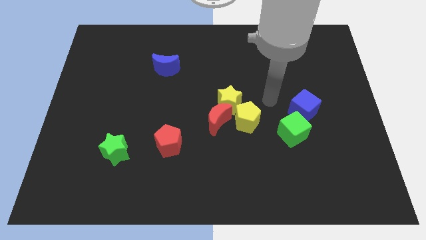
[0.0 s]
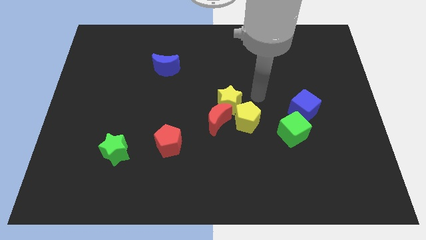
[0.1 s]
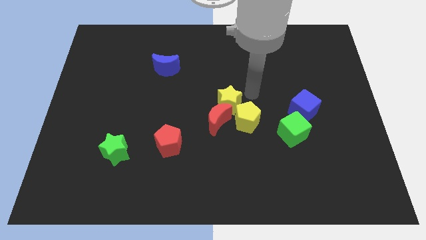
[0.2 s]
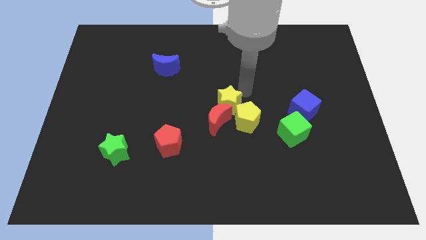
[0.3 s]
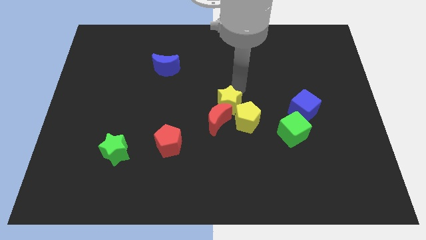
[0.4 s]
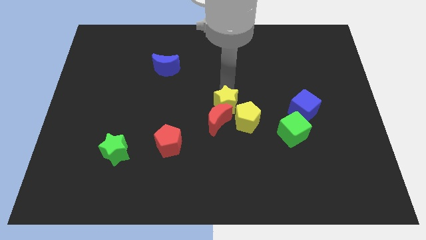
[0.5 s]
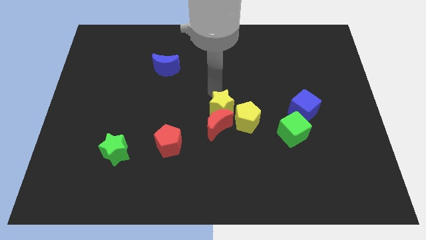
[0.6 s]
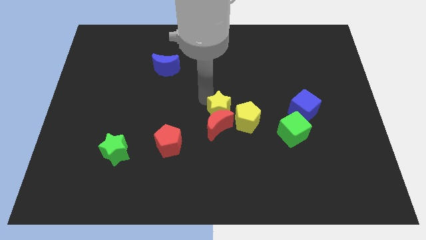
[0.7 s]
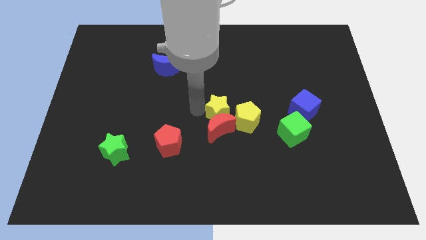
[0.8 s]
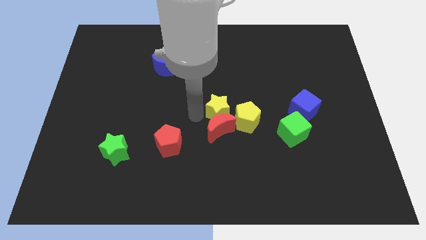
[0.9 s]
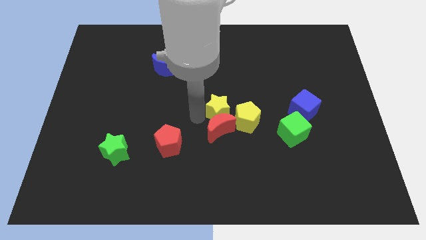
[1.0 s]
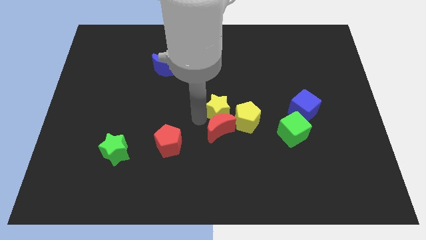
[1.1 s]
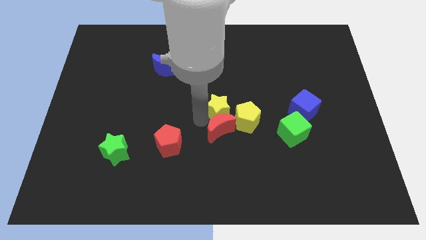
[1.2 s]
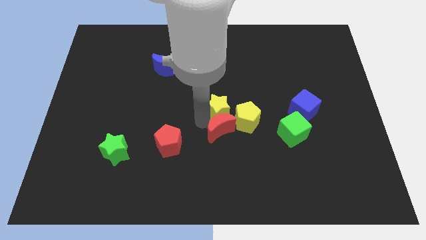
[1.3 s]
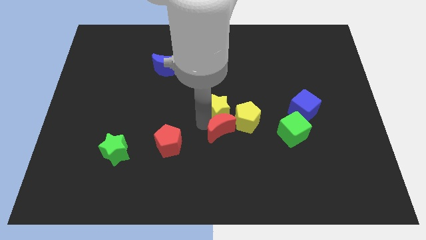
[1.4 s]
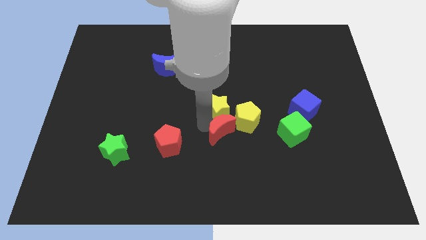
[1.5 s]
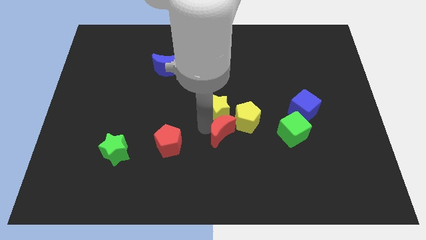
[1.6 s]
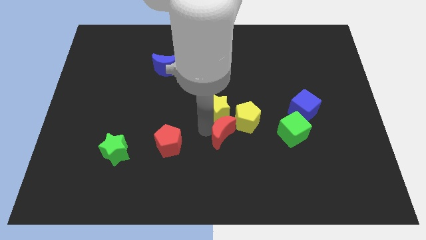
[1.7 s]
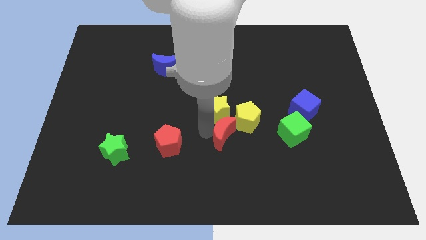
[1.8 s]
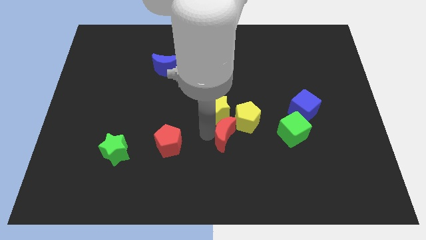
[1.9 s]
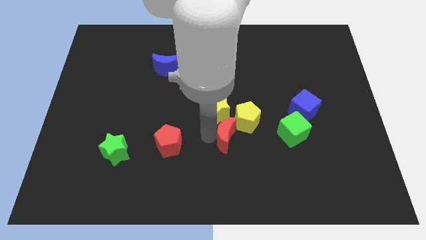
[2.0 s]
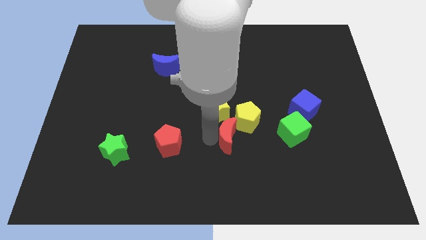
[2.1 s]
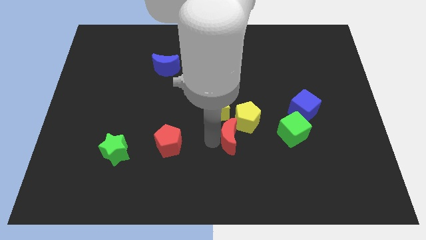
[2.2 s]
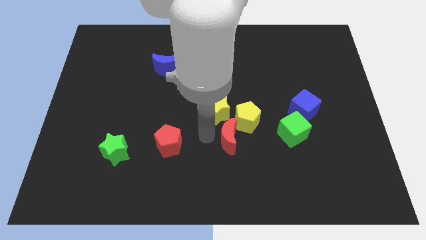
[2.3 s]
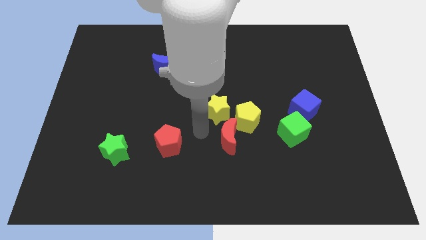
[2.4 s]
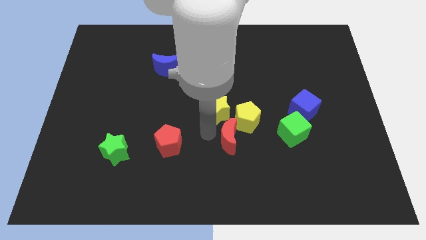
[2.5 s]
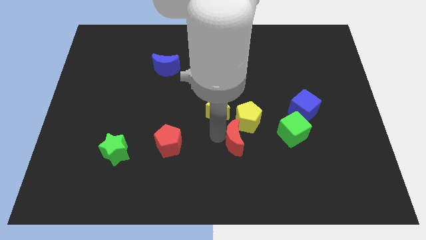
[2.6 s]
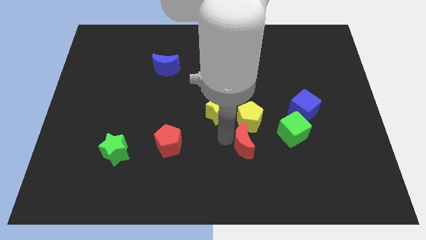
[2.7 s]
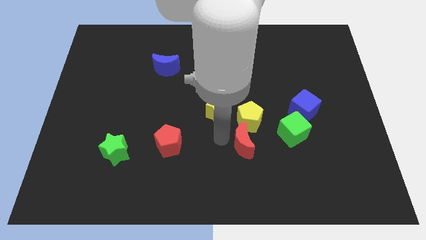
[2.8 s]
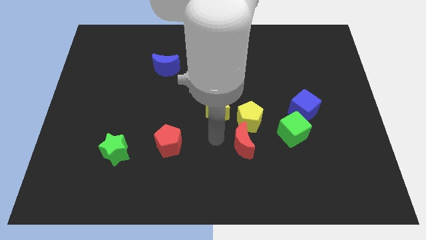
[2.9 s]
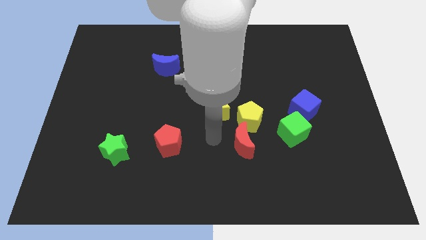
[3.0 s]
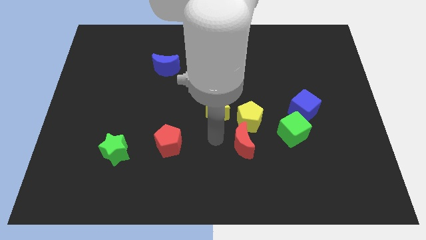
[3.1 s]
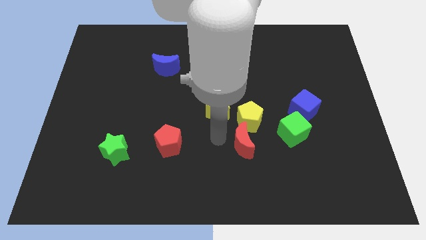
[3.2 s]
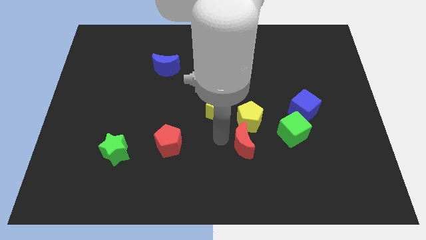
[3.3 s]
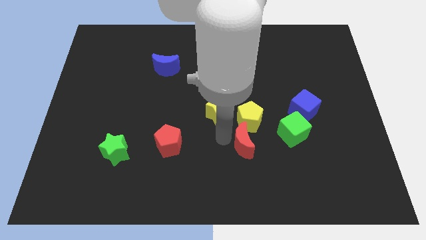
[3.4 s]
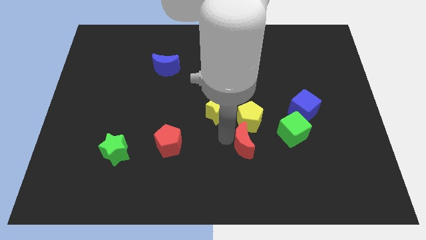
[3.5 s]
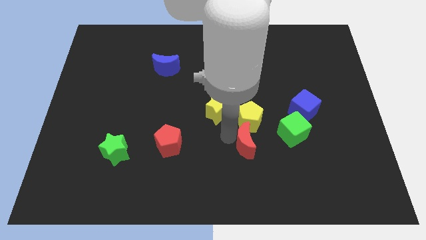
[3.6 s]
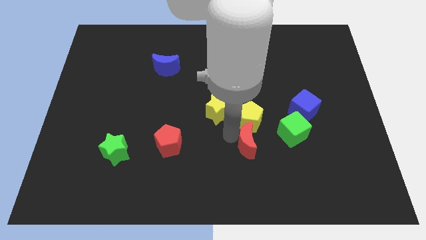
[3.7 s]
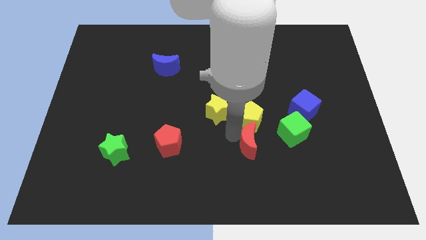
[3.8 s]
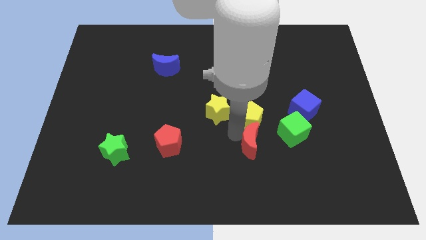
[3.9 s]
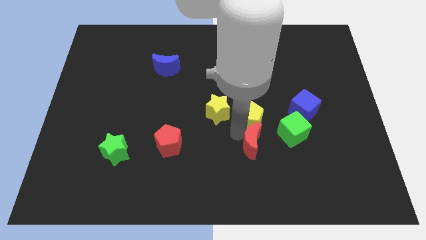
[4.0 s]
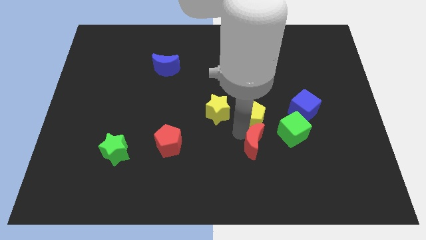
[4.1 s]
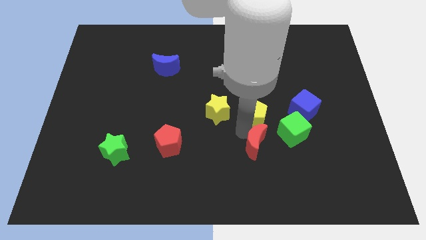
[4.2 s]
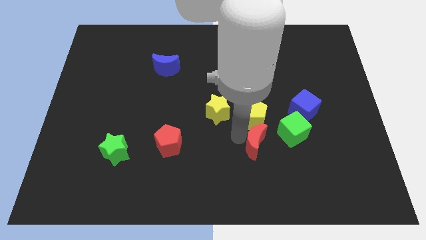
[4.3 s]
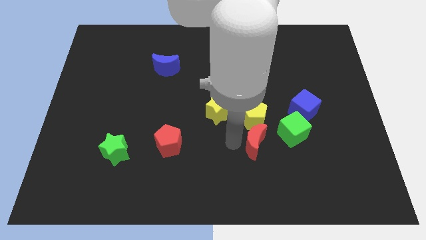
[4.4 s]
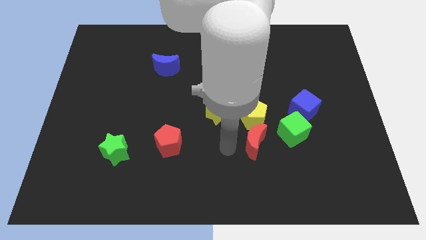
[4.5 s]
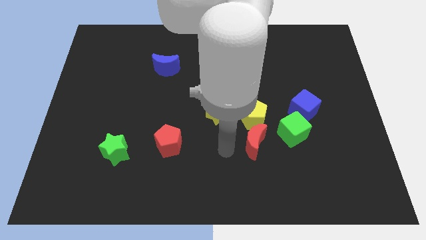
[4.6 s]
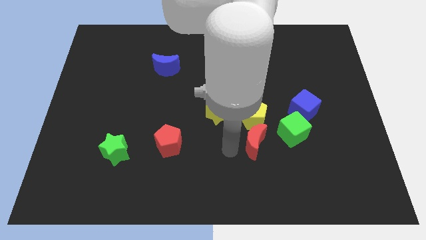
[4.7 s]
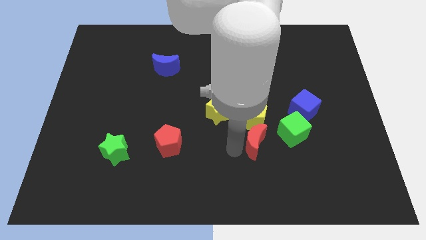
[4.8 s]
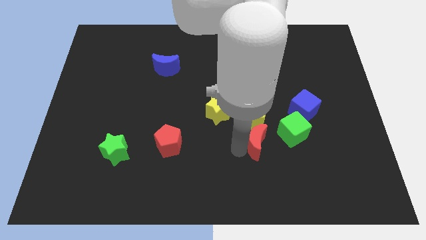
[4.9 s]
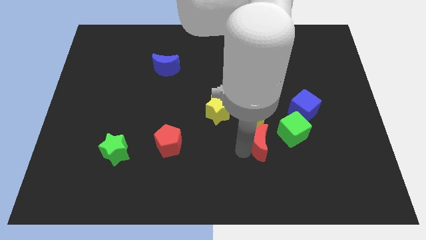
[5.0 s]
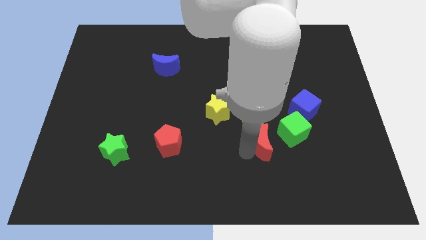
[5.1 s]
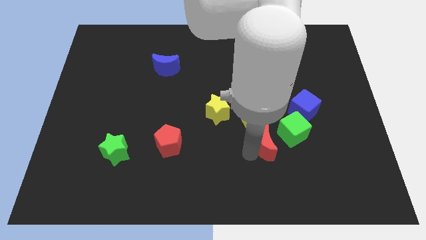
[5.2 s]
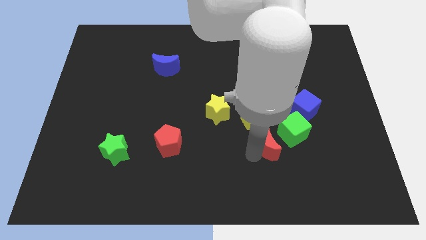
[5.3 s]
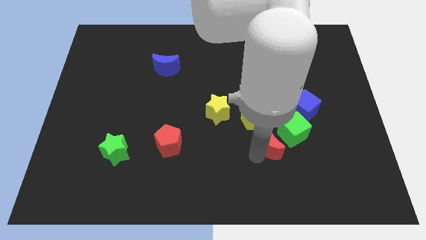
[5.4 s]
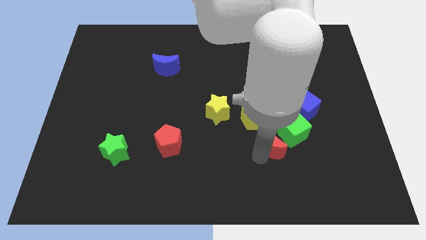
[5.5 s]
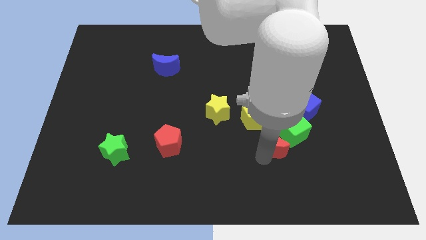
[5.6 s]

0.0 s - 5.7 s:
push the red moon towards the green cube

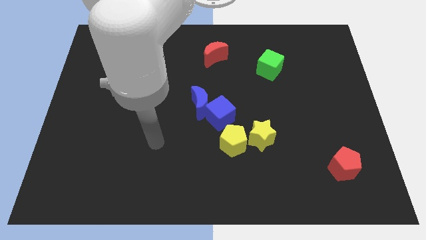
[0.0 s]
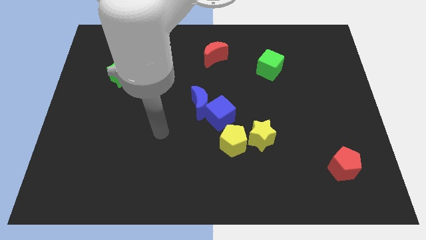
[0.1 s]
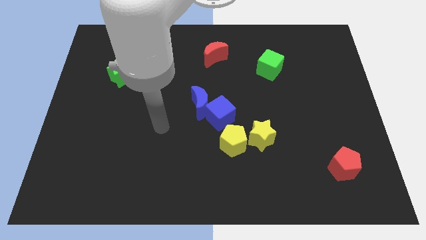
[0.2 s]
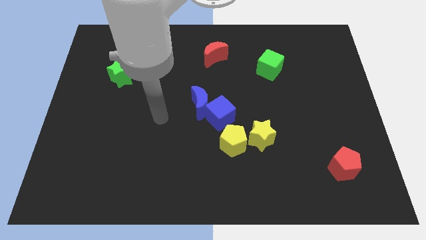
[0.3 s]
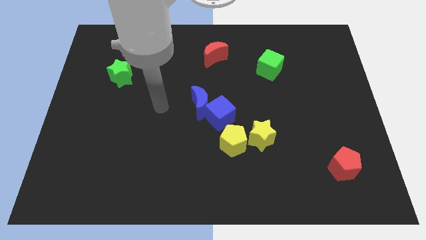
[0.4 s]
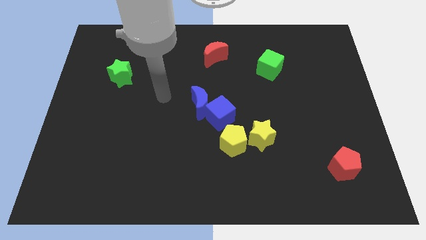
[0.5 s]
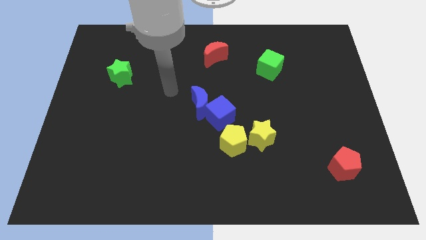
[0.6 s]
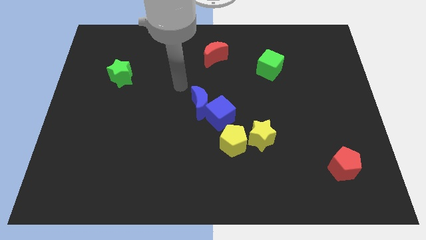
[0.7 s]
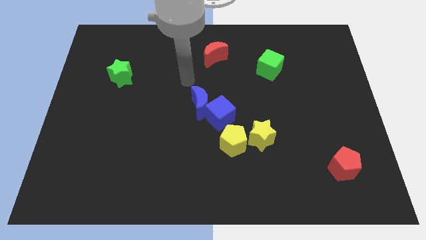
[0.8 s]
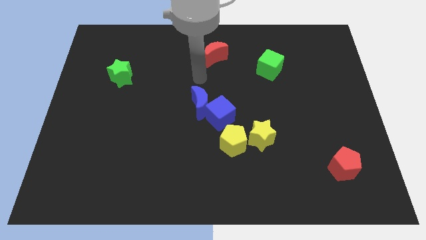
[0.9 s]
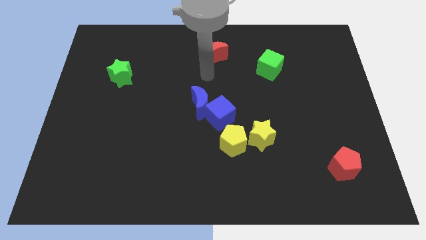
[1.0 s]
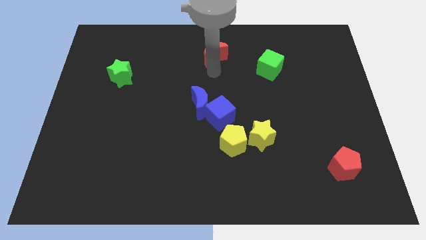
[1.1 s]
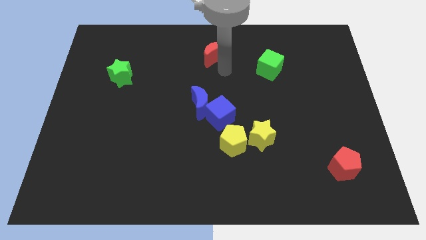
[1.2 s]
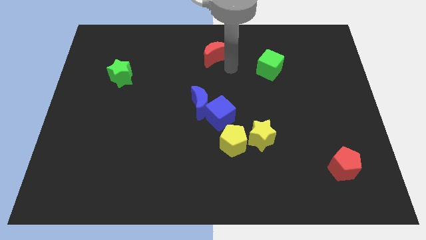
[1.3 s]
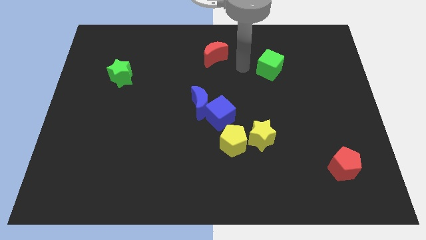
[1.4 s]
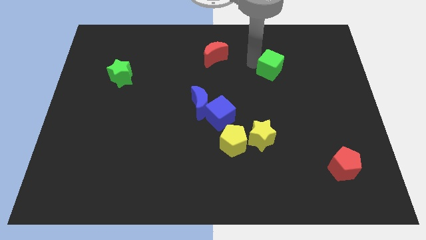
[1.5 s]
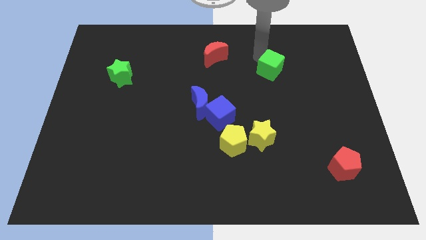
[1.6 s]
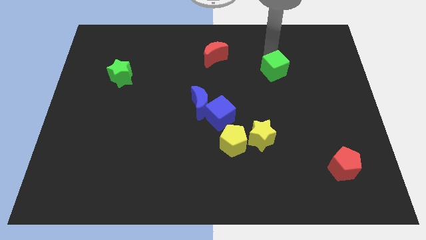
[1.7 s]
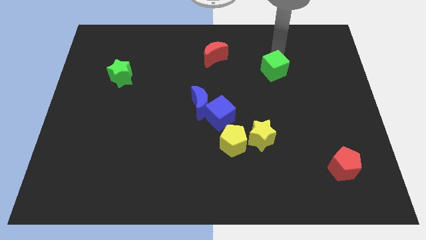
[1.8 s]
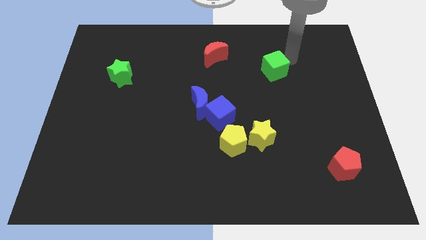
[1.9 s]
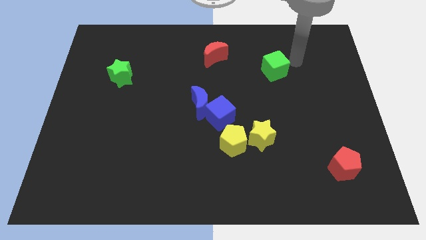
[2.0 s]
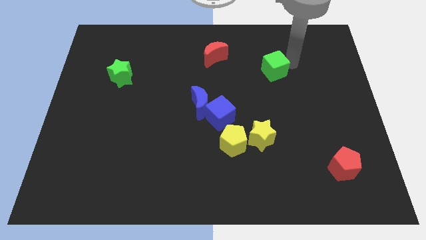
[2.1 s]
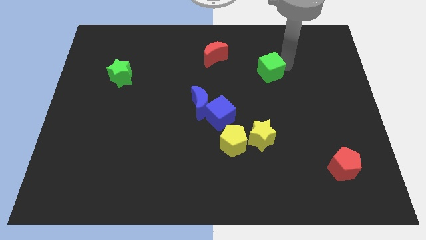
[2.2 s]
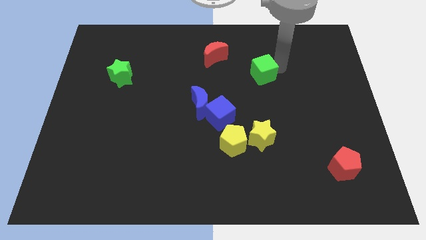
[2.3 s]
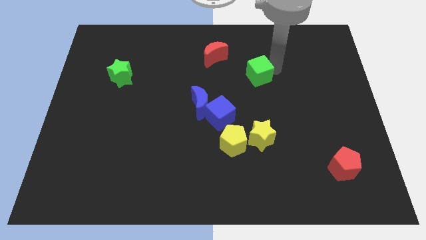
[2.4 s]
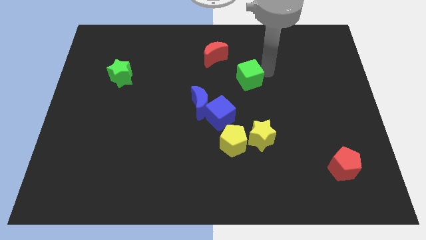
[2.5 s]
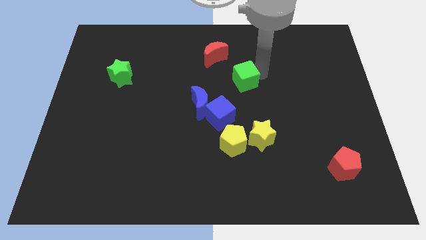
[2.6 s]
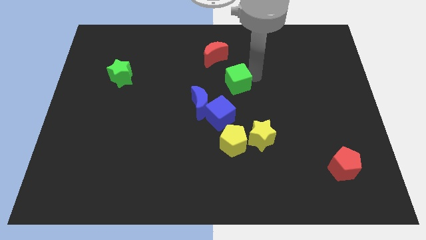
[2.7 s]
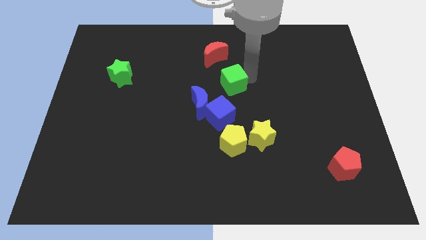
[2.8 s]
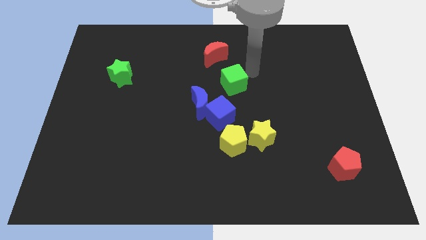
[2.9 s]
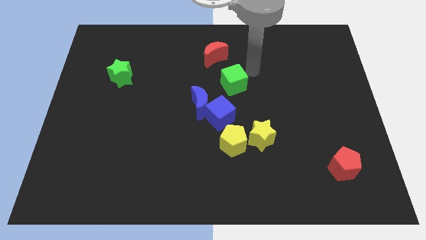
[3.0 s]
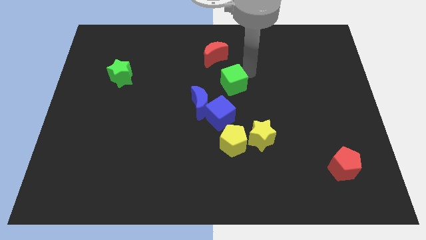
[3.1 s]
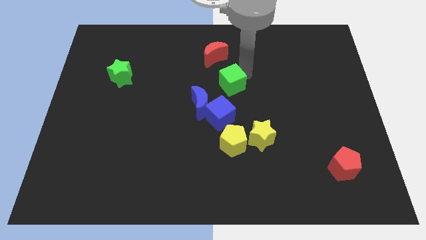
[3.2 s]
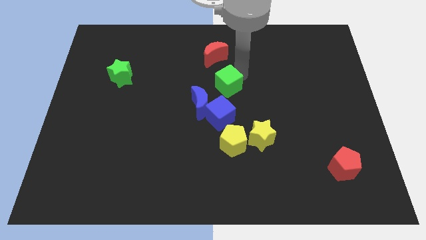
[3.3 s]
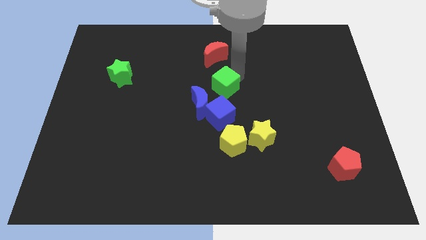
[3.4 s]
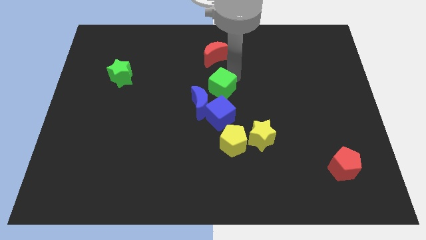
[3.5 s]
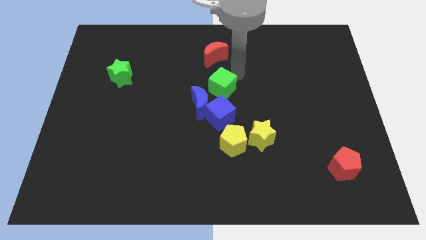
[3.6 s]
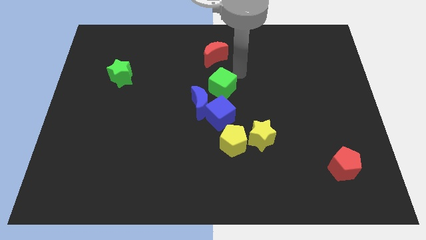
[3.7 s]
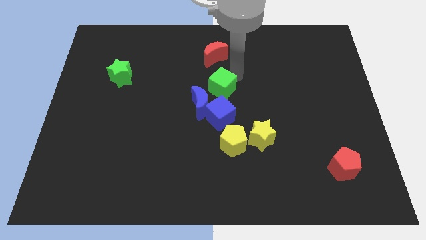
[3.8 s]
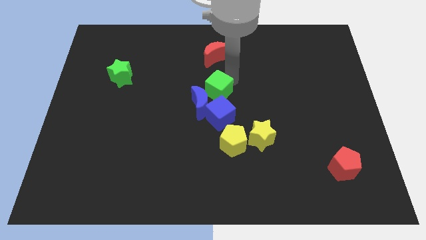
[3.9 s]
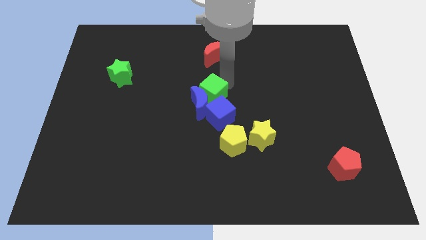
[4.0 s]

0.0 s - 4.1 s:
slide the green cube close to the blue moon
